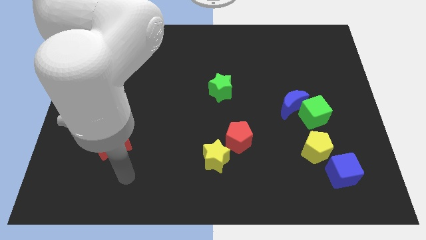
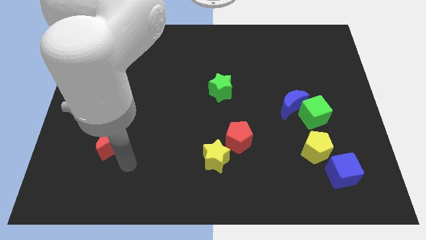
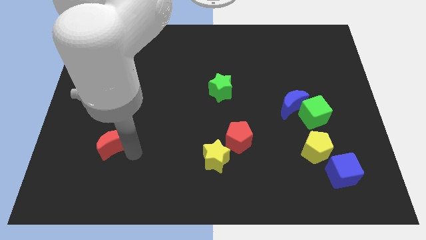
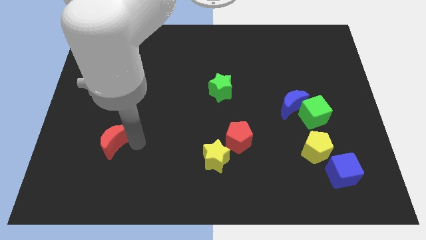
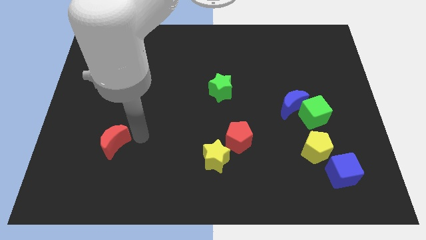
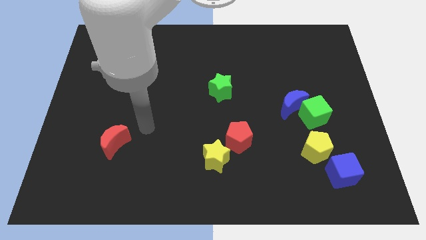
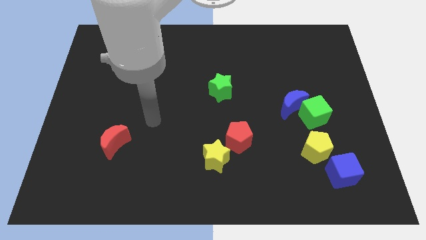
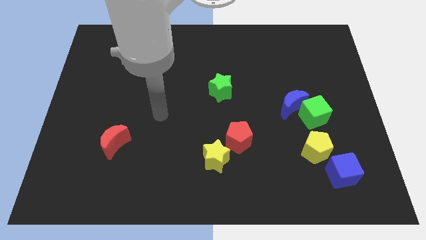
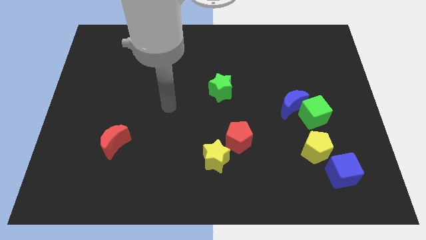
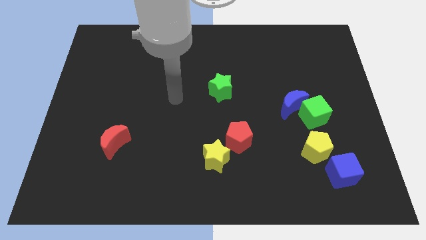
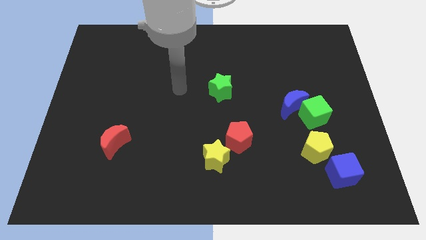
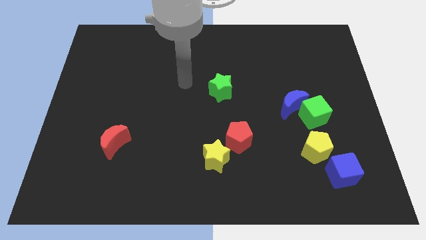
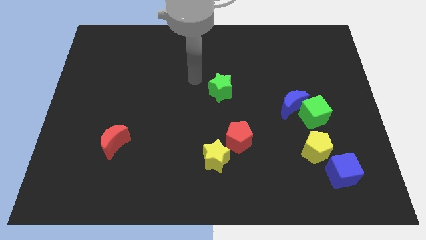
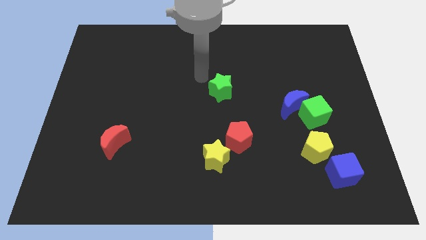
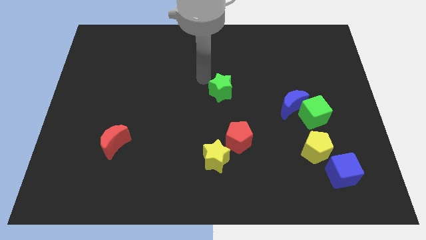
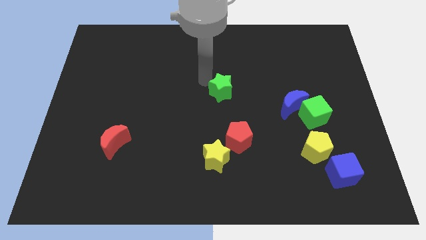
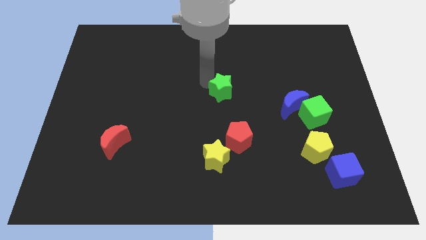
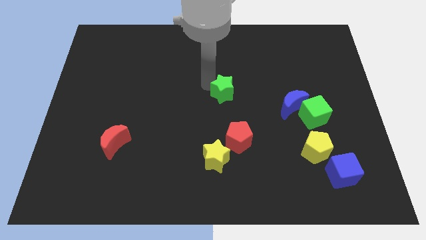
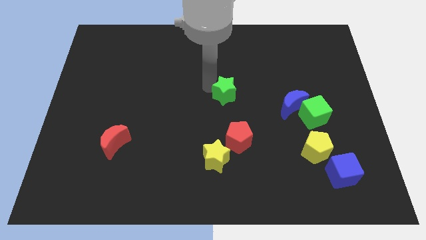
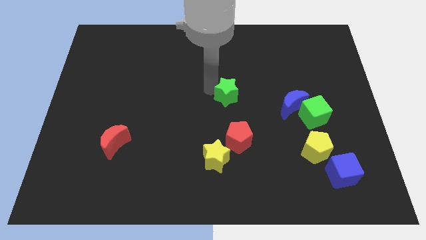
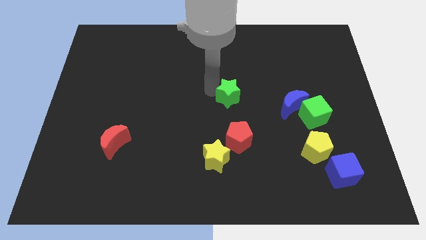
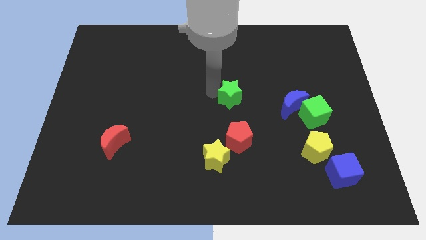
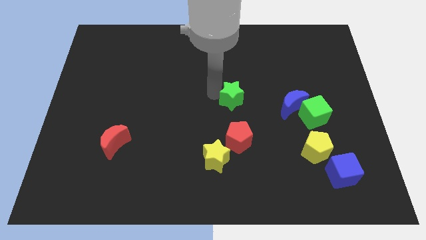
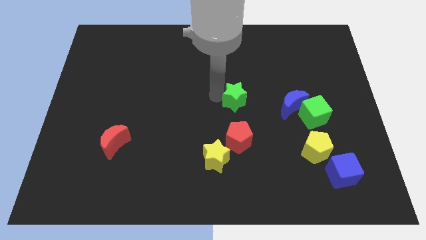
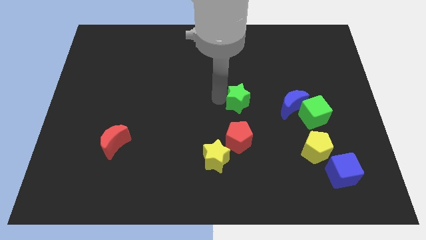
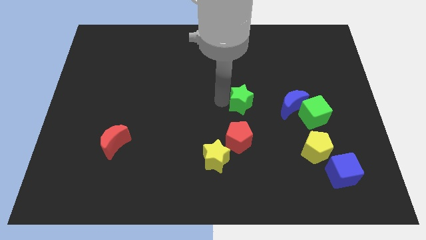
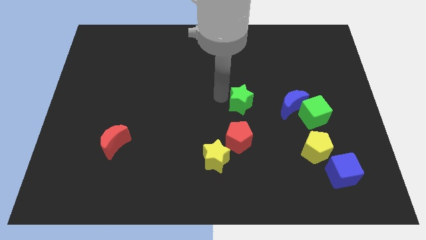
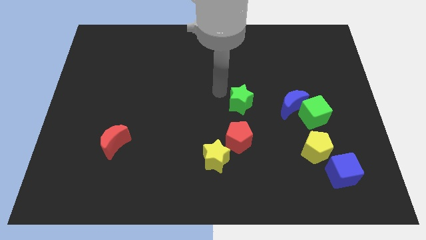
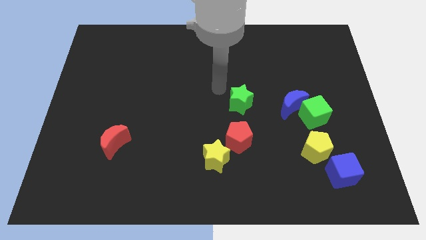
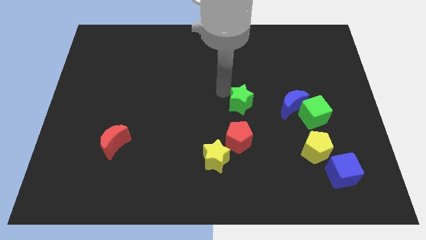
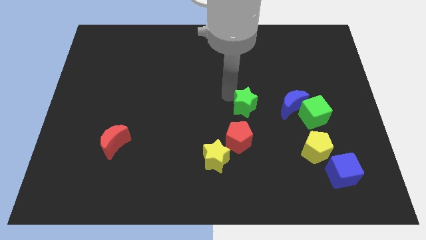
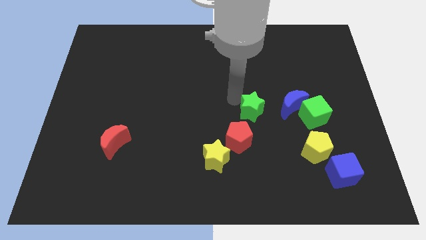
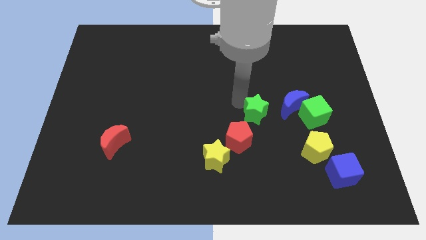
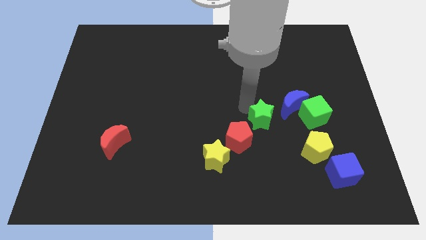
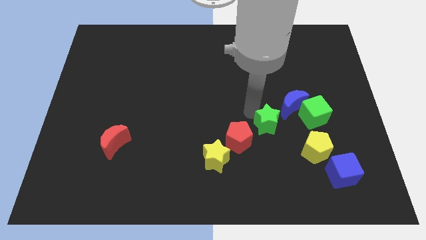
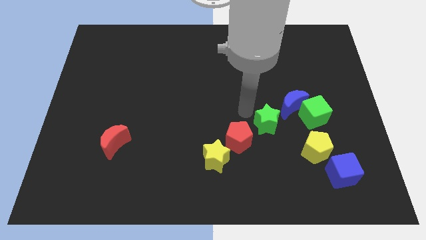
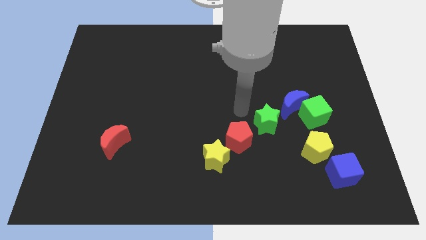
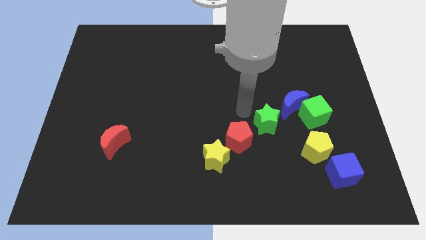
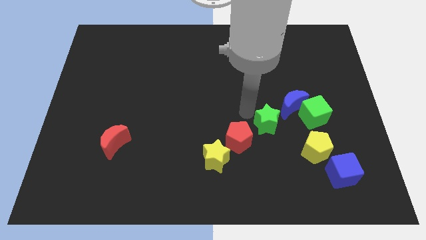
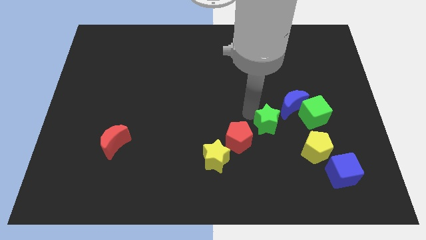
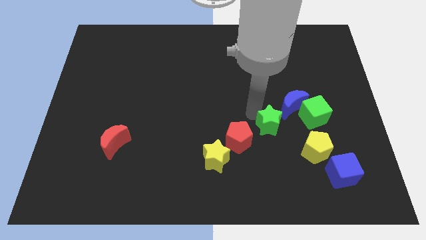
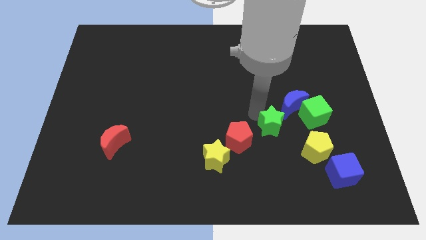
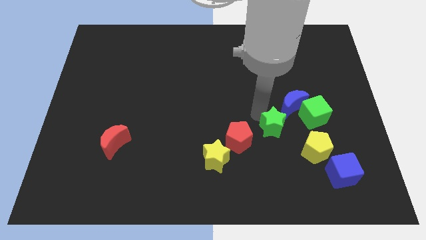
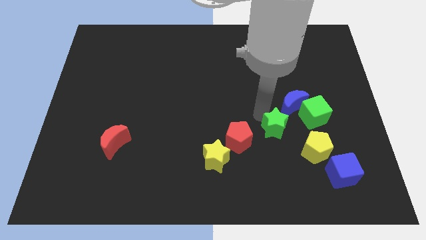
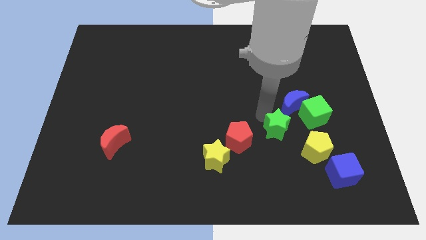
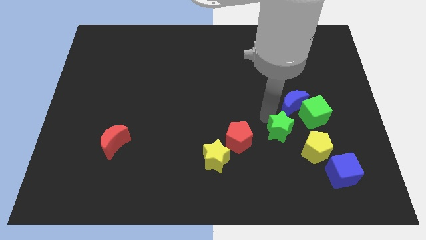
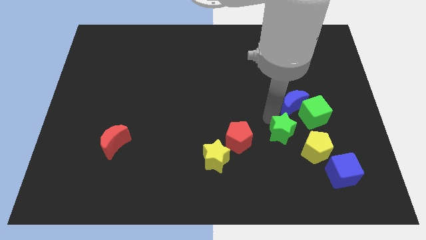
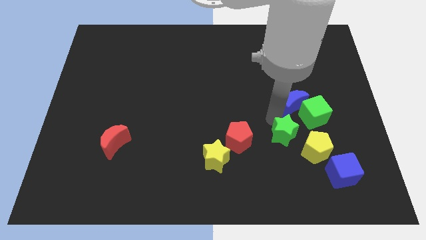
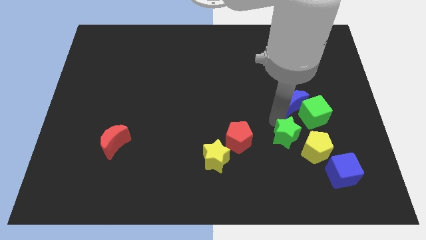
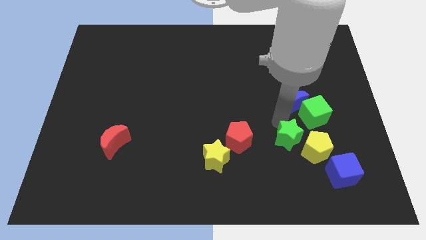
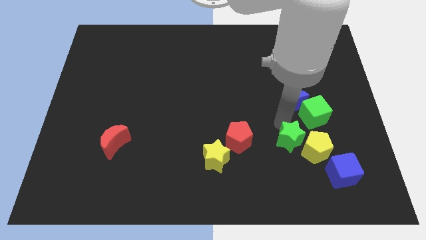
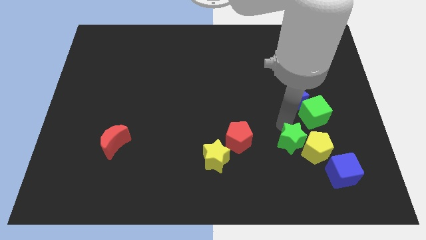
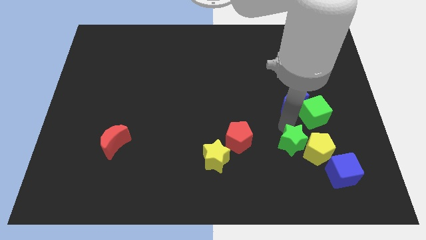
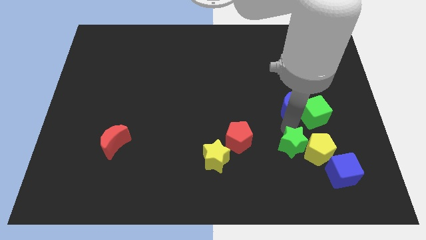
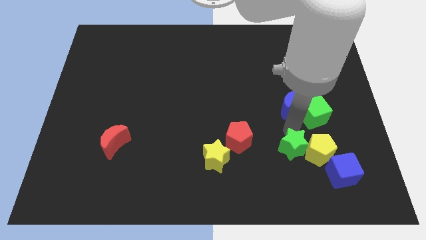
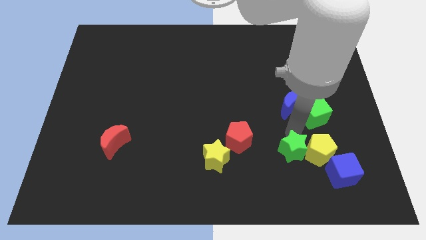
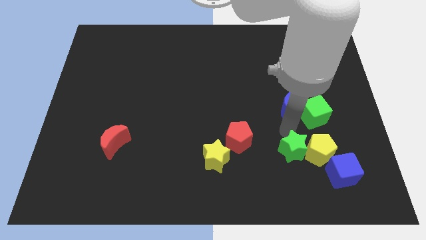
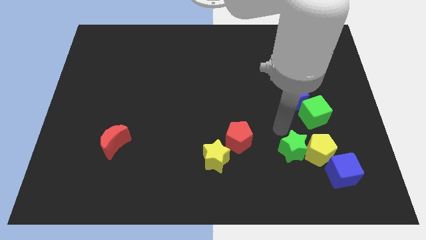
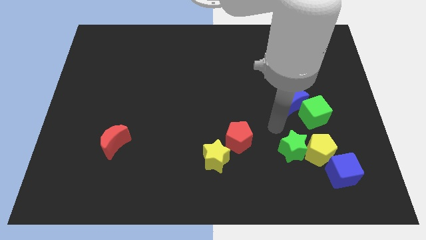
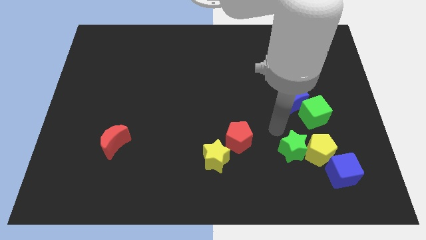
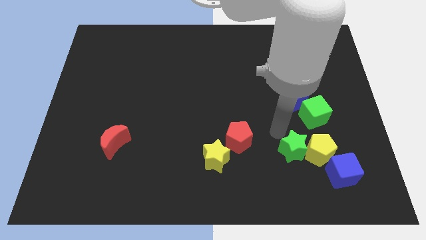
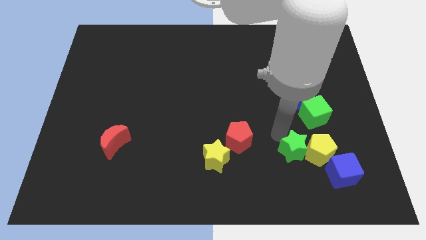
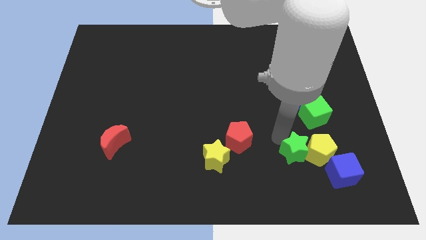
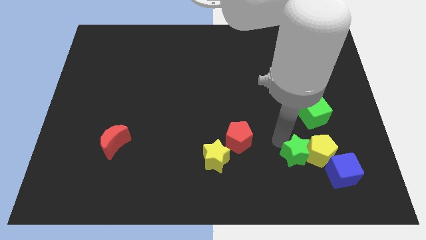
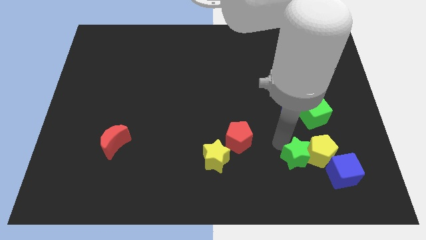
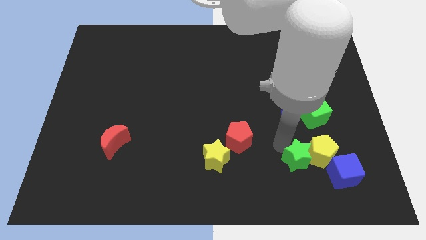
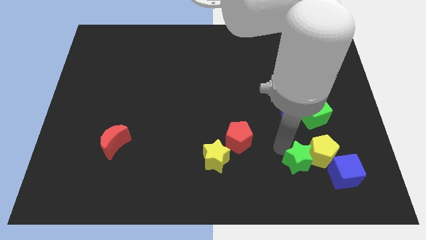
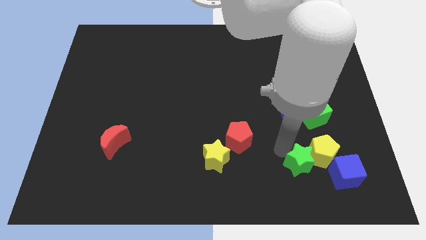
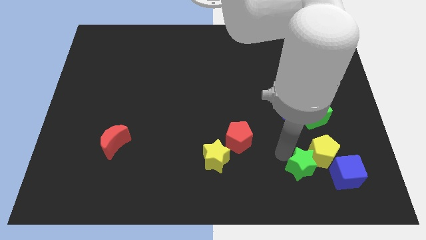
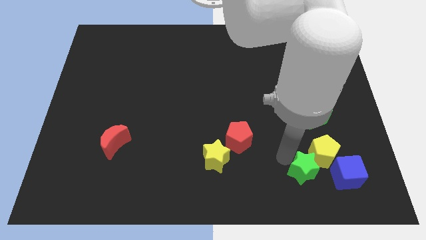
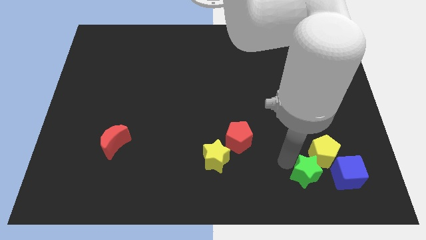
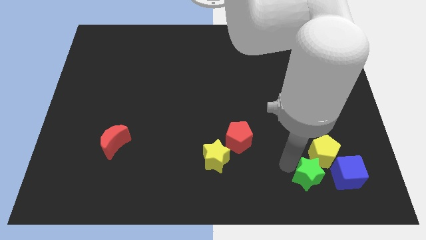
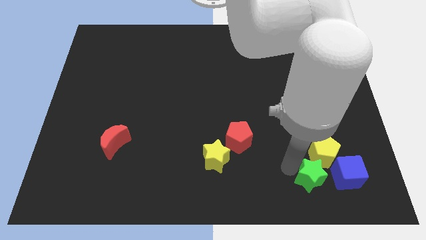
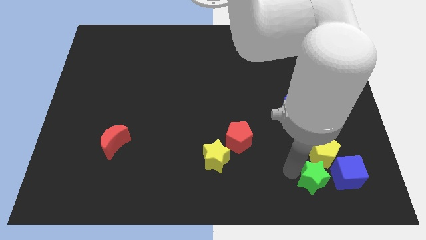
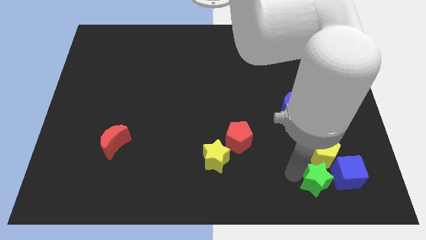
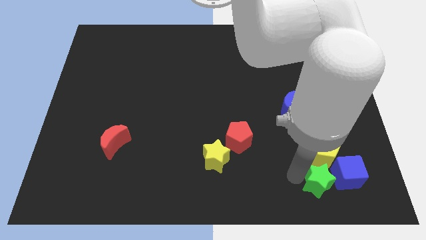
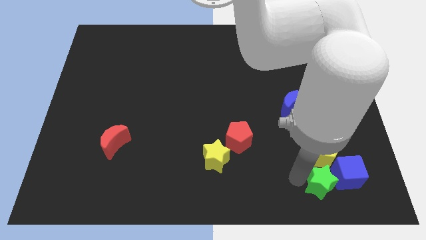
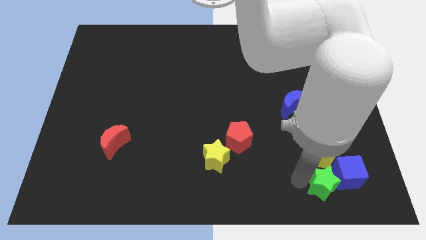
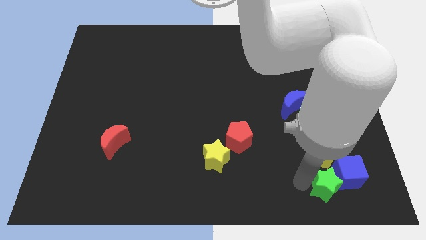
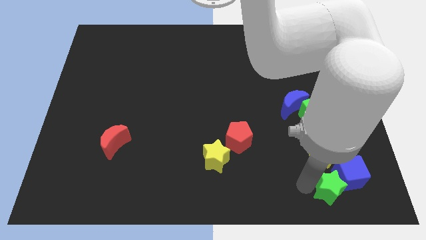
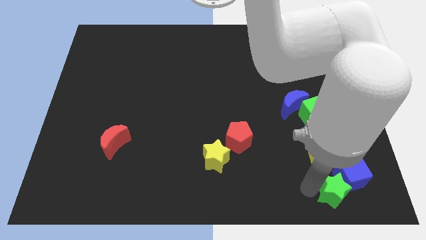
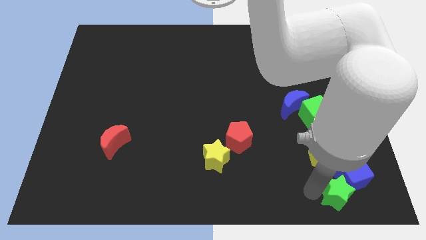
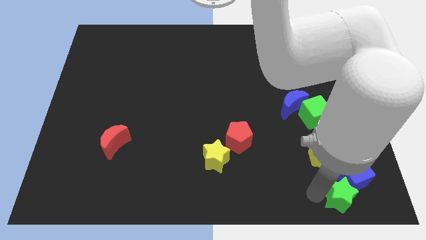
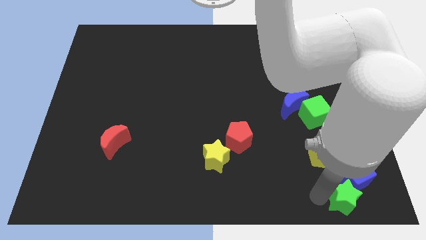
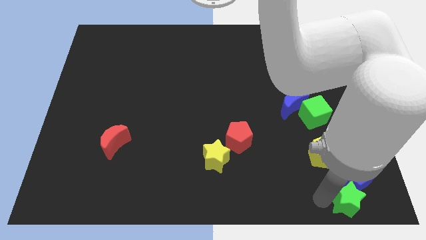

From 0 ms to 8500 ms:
move the green star to the bottom right
